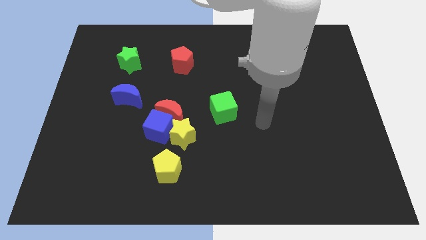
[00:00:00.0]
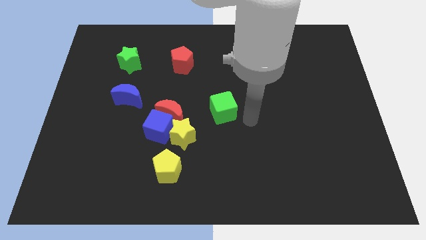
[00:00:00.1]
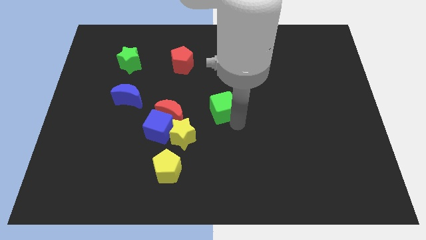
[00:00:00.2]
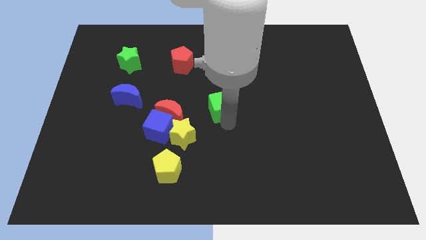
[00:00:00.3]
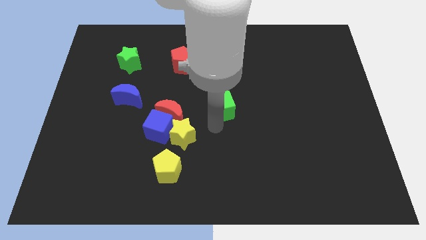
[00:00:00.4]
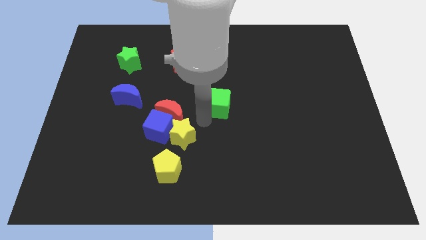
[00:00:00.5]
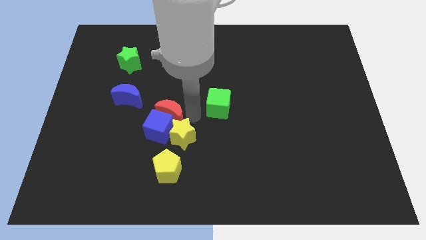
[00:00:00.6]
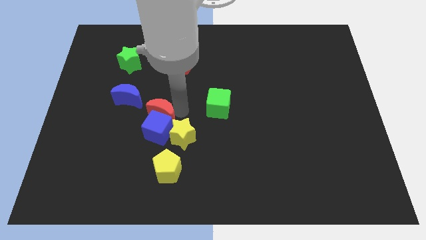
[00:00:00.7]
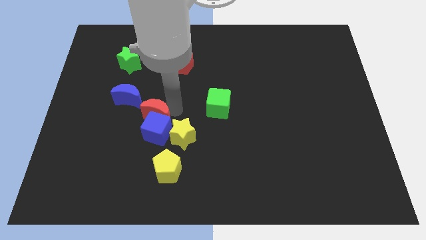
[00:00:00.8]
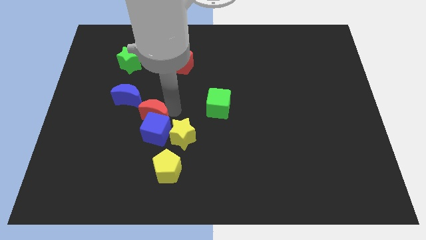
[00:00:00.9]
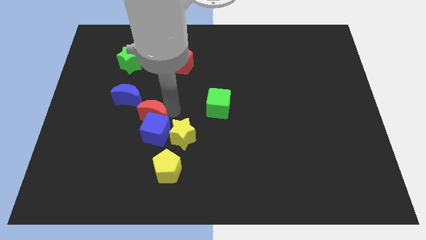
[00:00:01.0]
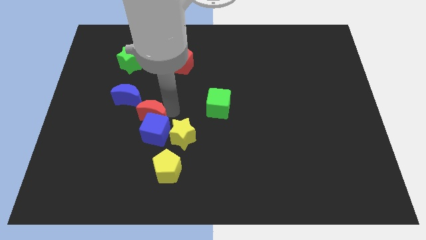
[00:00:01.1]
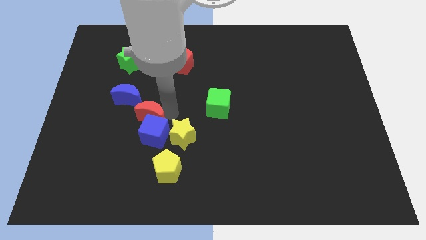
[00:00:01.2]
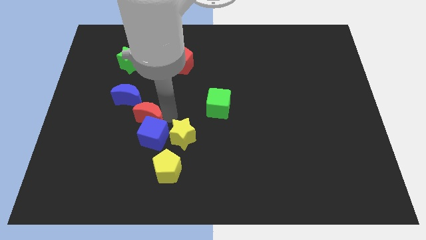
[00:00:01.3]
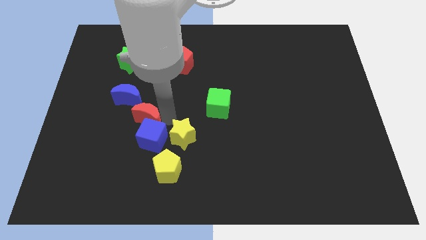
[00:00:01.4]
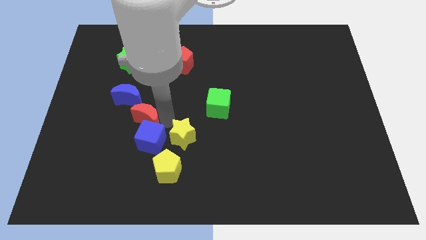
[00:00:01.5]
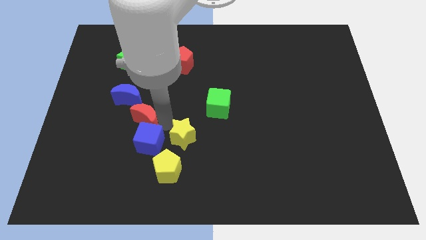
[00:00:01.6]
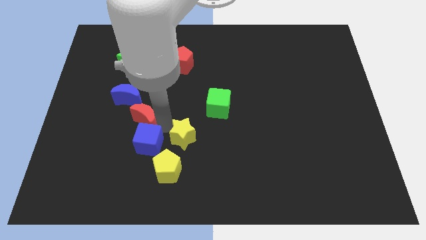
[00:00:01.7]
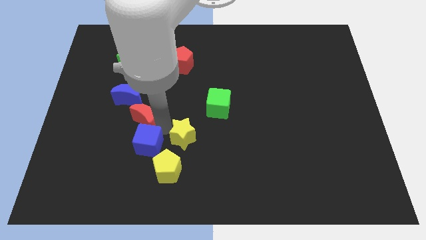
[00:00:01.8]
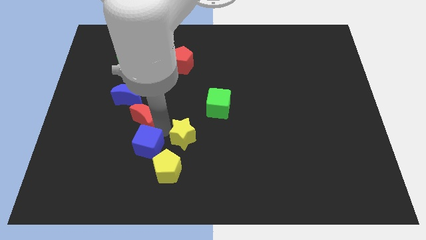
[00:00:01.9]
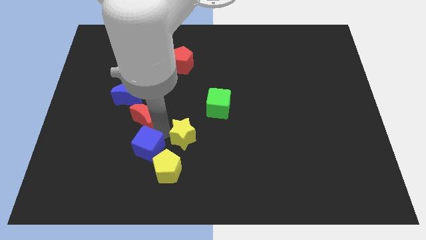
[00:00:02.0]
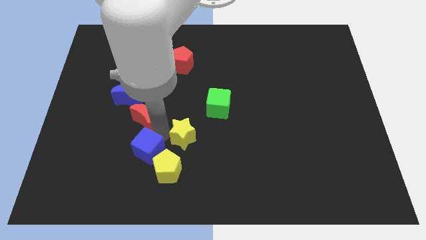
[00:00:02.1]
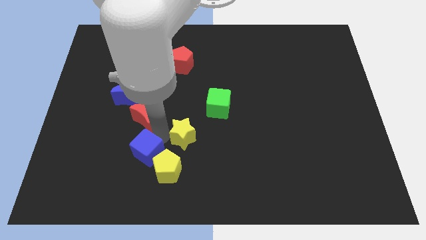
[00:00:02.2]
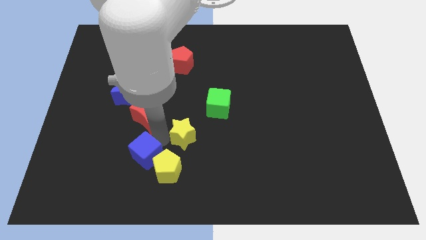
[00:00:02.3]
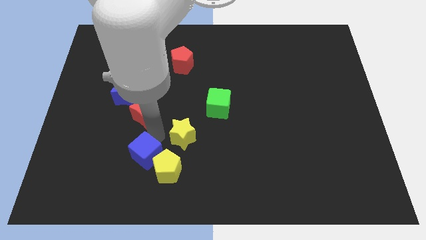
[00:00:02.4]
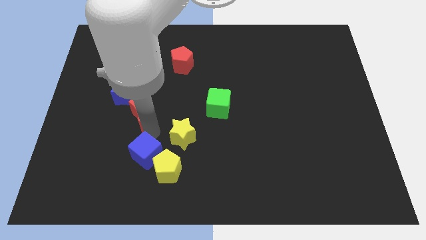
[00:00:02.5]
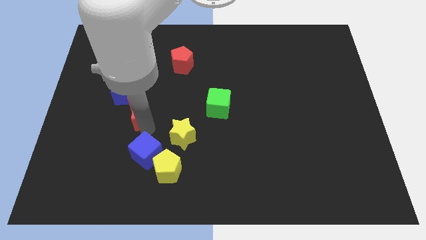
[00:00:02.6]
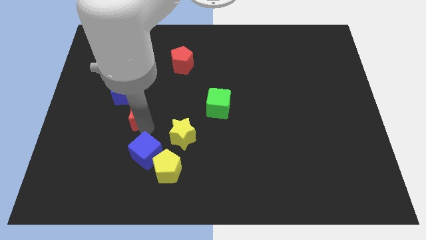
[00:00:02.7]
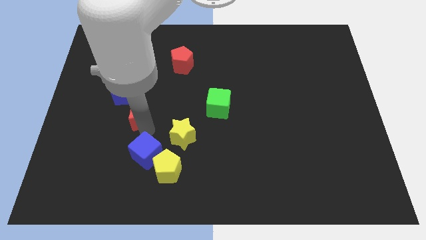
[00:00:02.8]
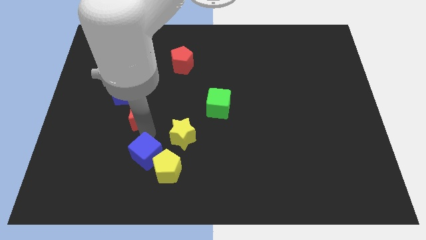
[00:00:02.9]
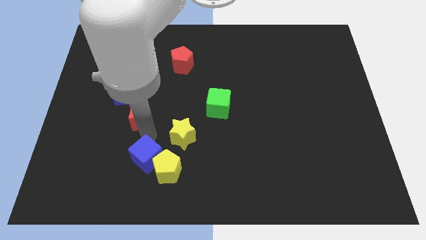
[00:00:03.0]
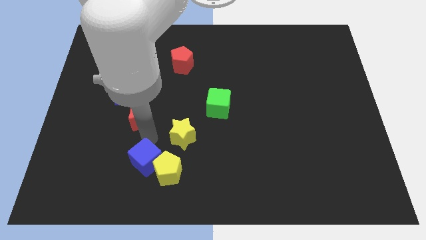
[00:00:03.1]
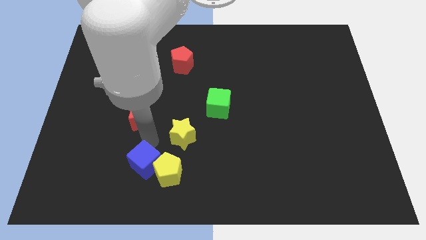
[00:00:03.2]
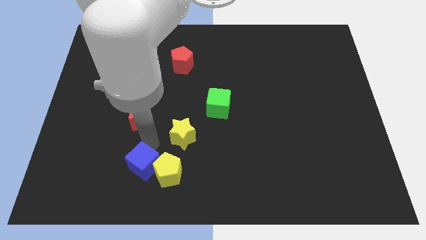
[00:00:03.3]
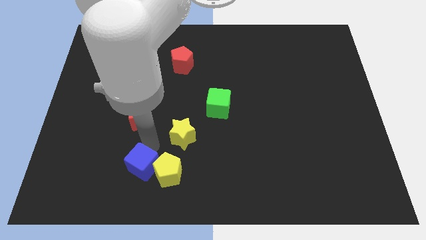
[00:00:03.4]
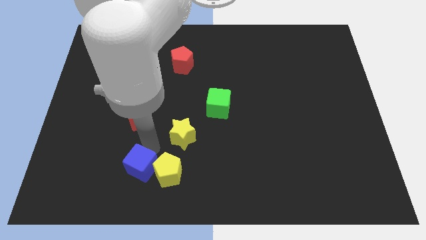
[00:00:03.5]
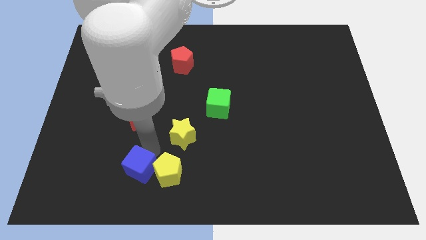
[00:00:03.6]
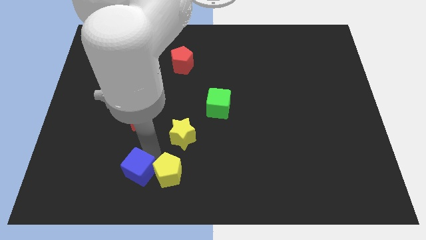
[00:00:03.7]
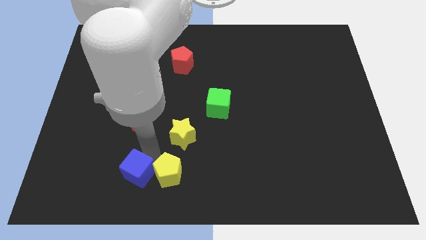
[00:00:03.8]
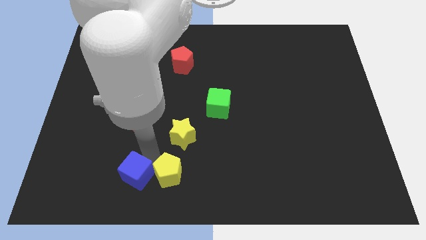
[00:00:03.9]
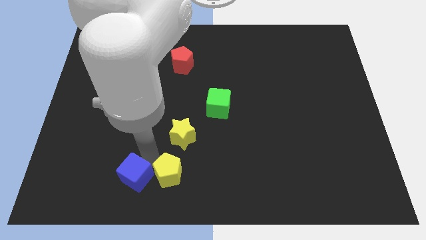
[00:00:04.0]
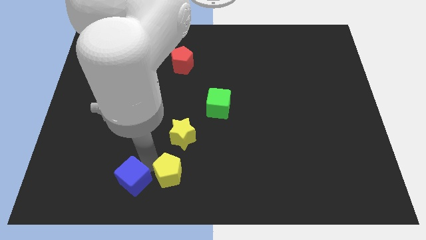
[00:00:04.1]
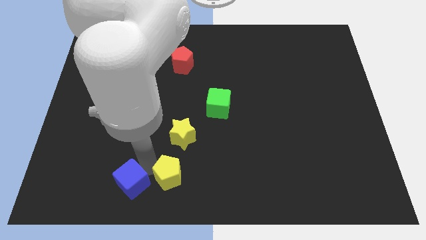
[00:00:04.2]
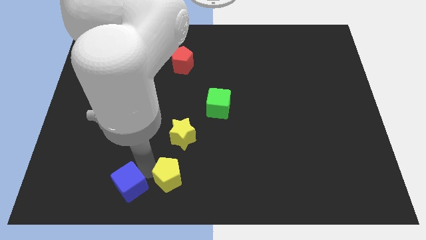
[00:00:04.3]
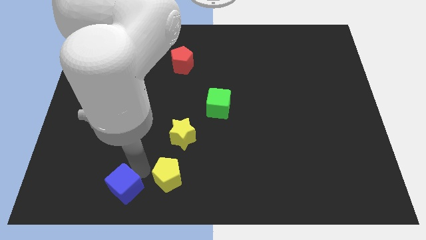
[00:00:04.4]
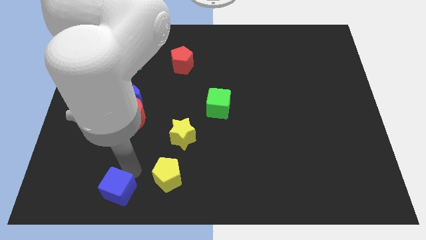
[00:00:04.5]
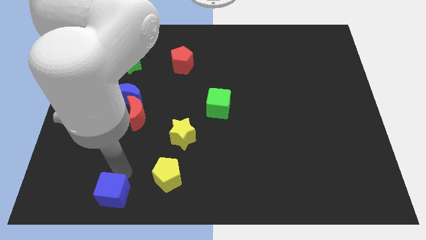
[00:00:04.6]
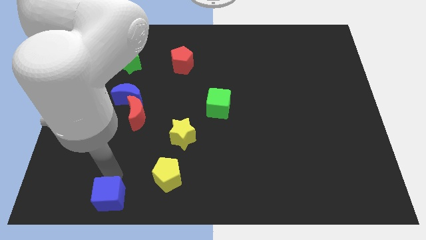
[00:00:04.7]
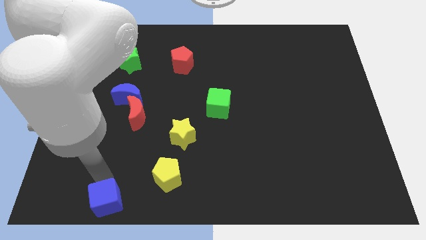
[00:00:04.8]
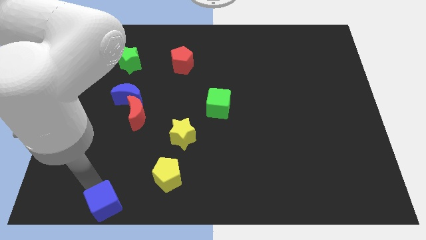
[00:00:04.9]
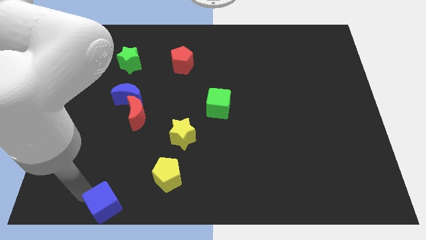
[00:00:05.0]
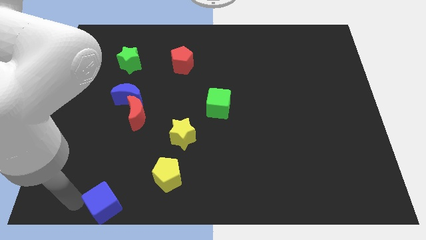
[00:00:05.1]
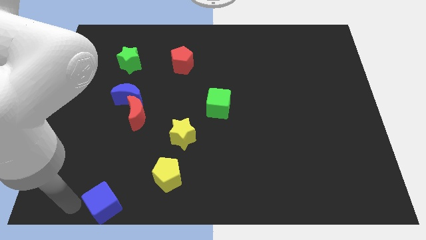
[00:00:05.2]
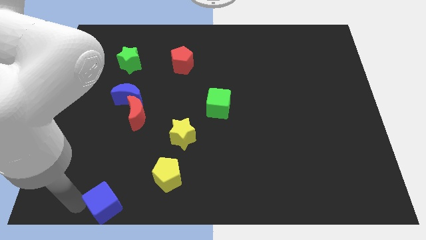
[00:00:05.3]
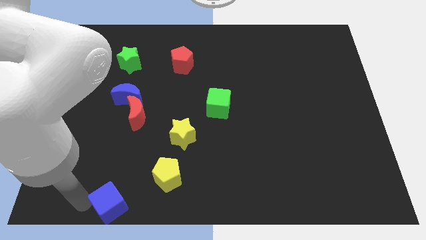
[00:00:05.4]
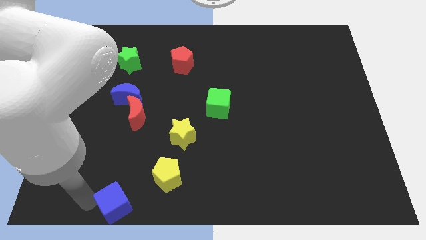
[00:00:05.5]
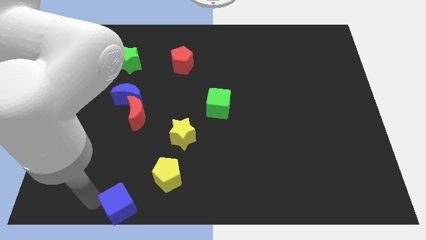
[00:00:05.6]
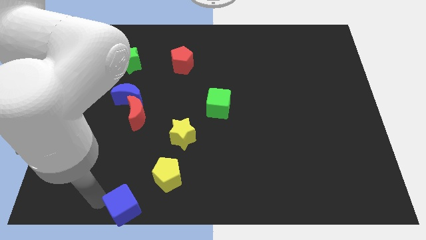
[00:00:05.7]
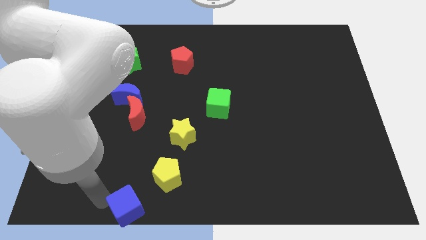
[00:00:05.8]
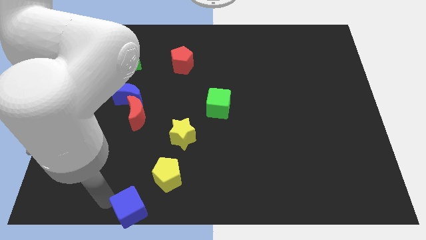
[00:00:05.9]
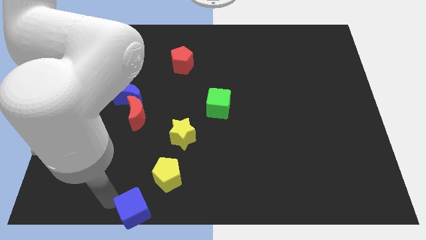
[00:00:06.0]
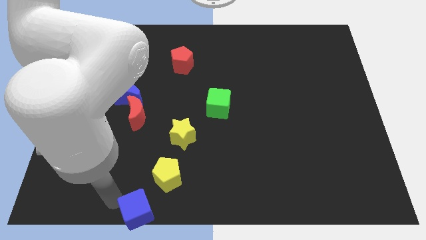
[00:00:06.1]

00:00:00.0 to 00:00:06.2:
put the blue cube to the bottom
